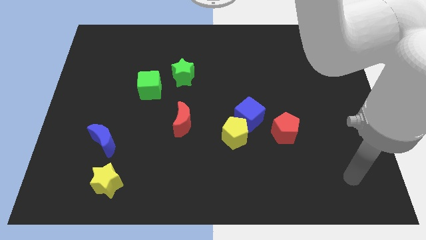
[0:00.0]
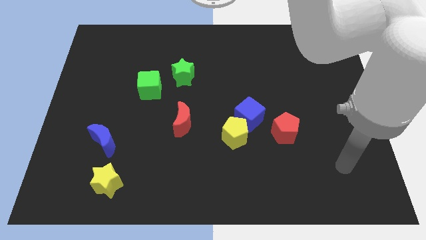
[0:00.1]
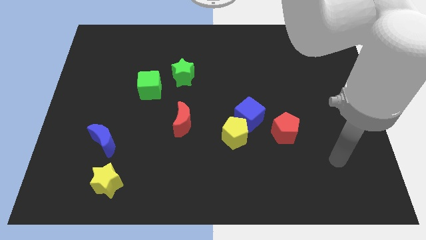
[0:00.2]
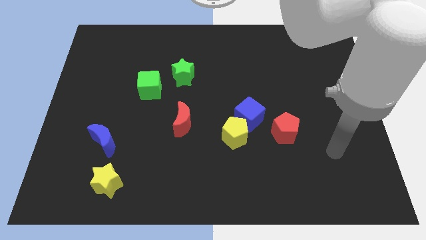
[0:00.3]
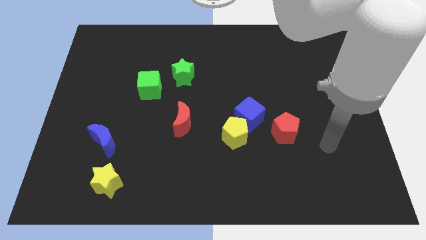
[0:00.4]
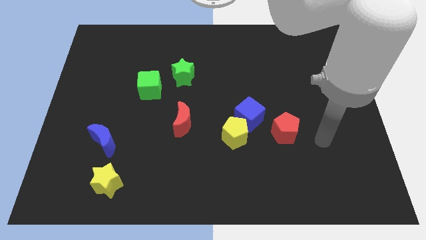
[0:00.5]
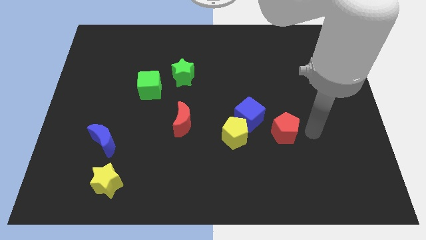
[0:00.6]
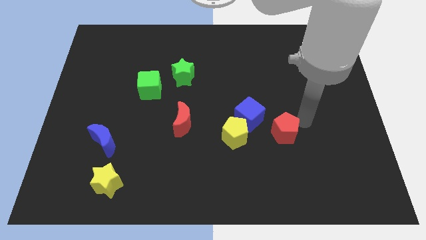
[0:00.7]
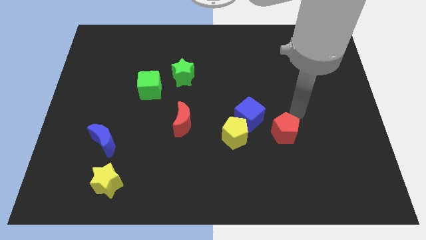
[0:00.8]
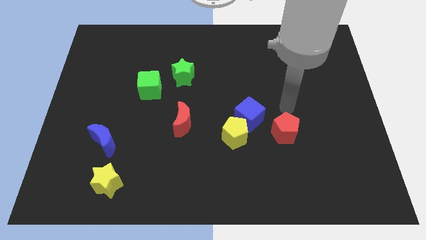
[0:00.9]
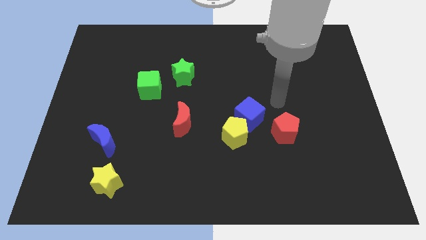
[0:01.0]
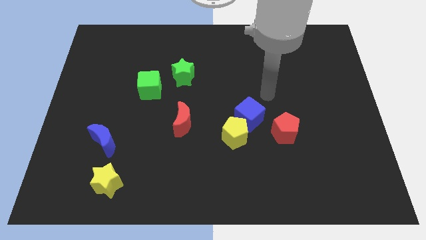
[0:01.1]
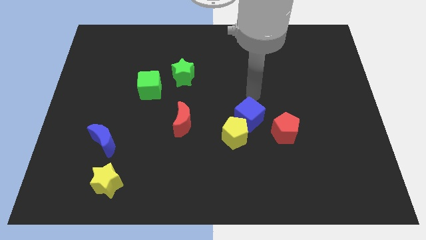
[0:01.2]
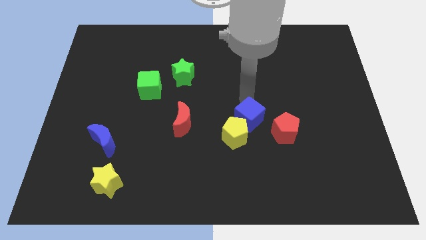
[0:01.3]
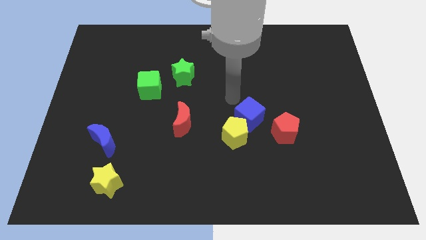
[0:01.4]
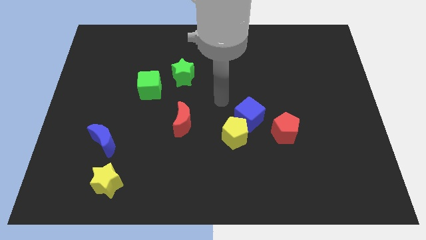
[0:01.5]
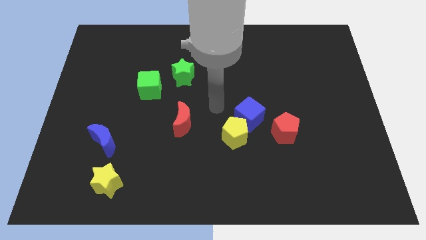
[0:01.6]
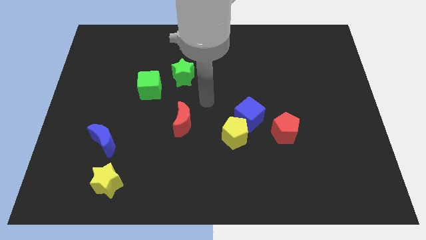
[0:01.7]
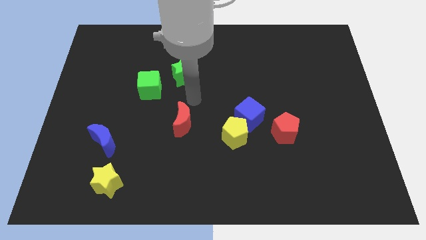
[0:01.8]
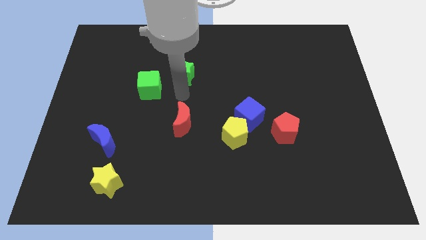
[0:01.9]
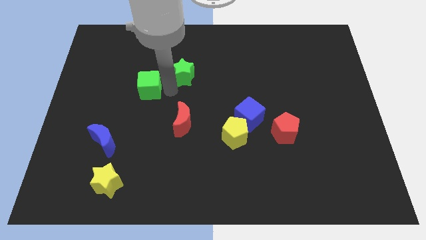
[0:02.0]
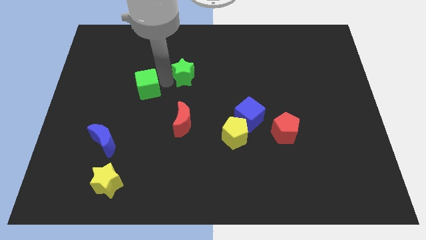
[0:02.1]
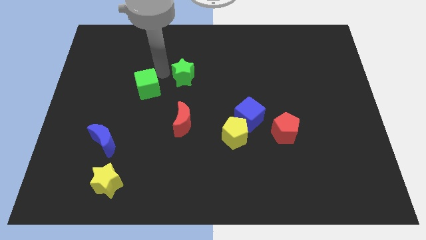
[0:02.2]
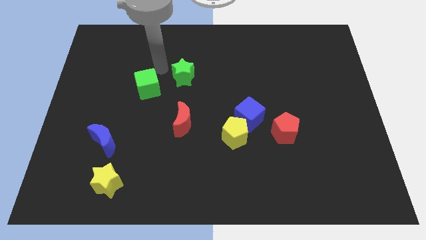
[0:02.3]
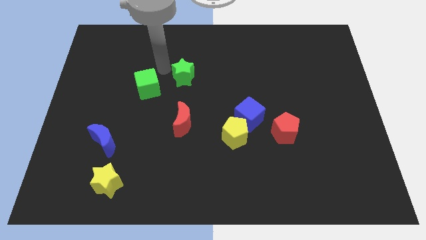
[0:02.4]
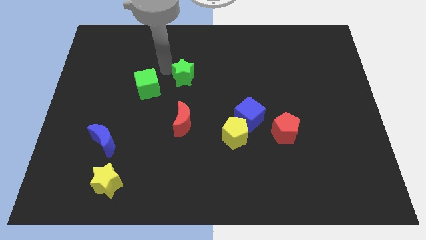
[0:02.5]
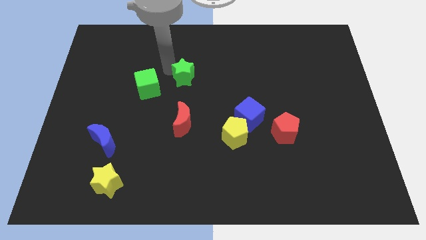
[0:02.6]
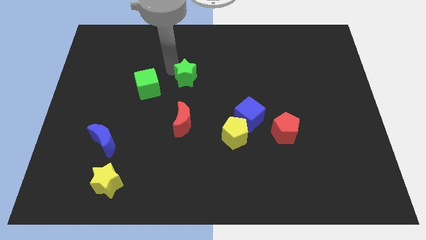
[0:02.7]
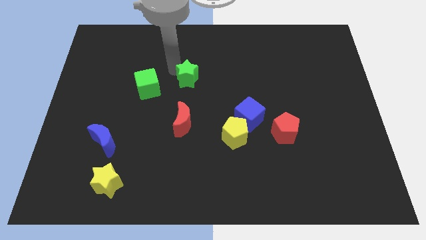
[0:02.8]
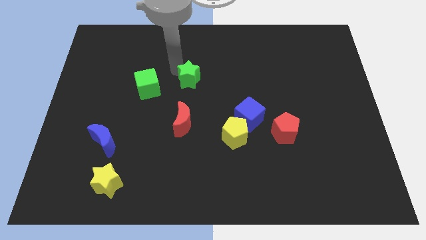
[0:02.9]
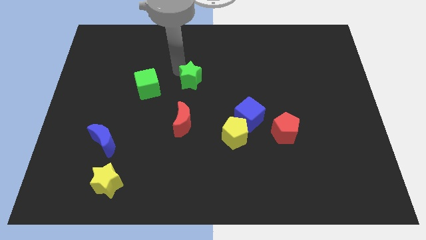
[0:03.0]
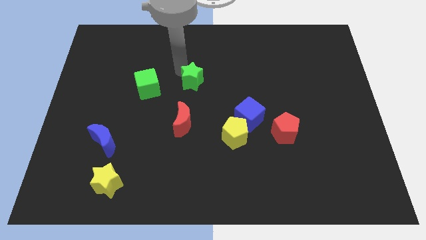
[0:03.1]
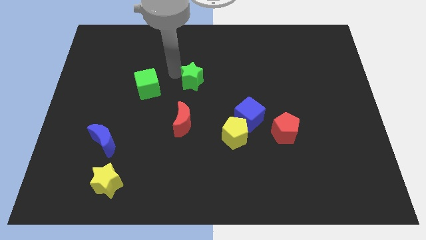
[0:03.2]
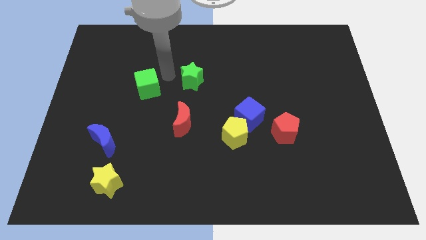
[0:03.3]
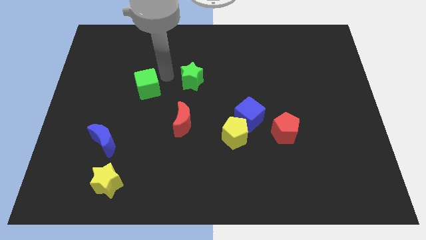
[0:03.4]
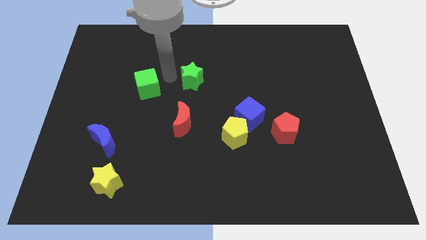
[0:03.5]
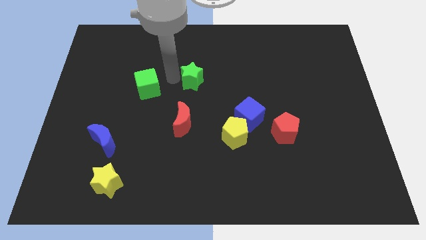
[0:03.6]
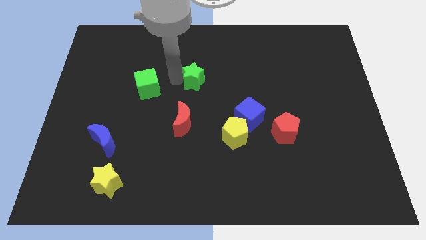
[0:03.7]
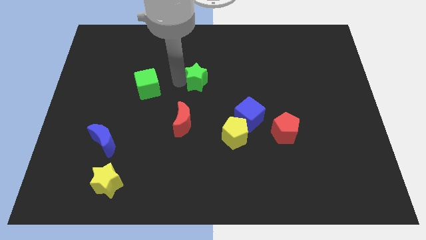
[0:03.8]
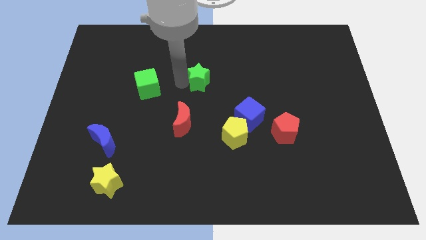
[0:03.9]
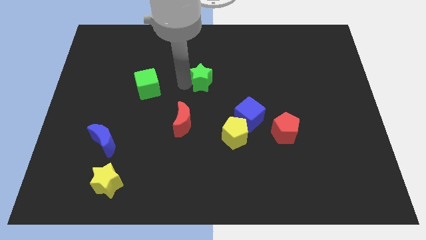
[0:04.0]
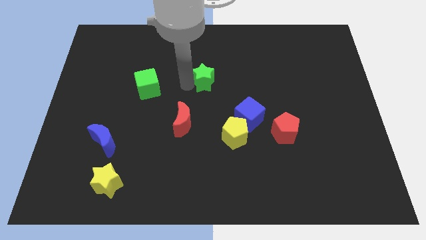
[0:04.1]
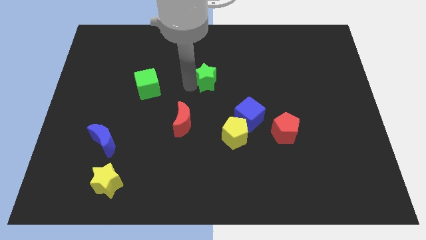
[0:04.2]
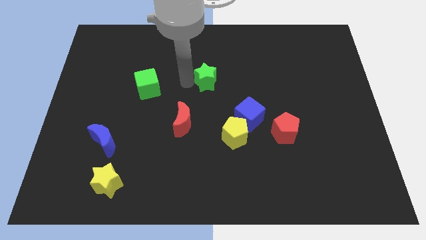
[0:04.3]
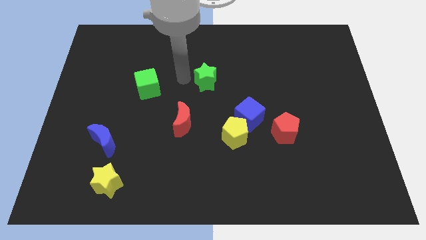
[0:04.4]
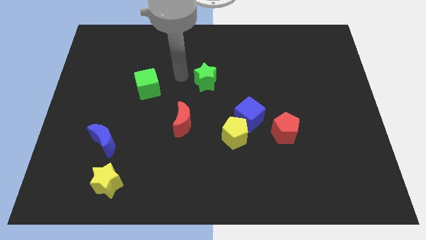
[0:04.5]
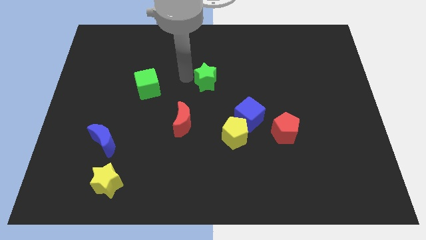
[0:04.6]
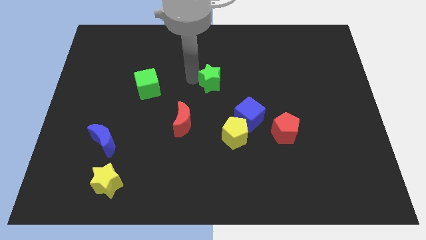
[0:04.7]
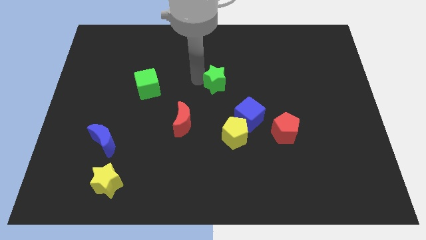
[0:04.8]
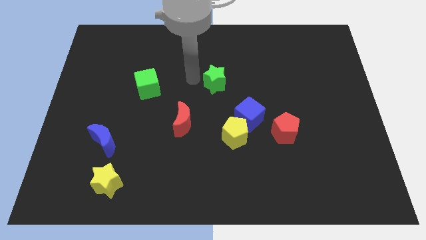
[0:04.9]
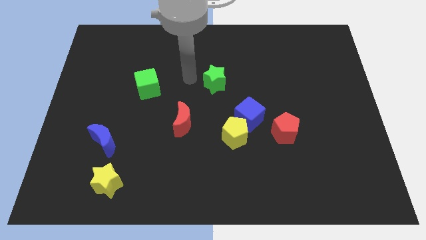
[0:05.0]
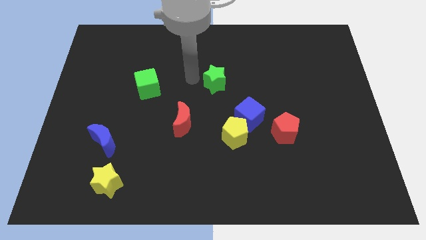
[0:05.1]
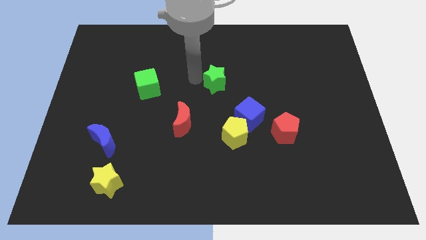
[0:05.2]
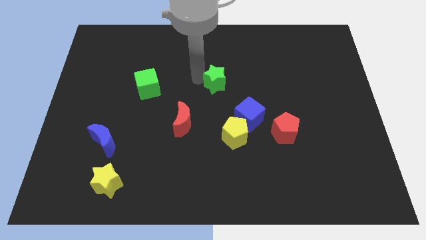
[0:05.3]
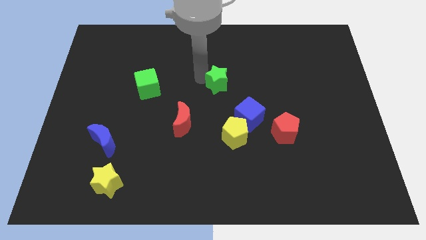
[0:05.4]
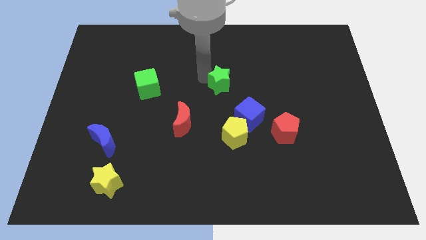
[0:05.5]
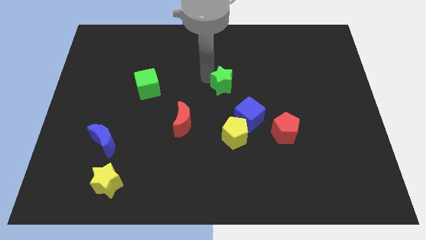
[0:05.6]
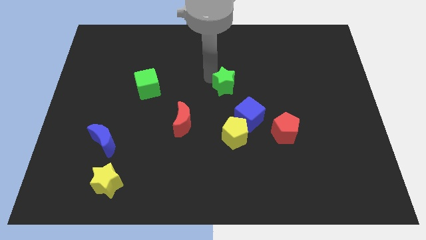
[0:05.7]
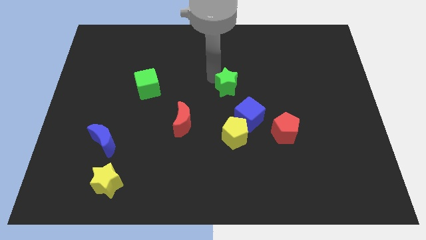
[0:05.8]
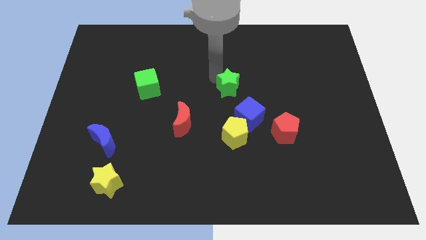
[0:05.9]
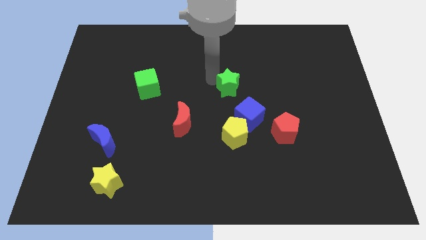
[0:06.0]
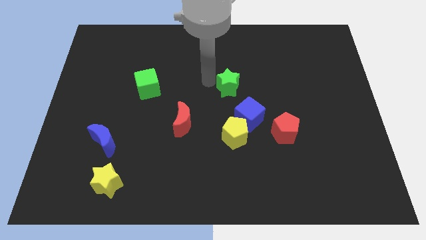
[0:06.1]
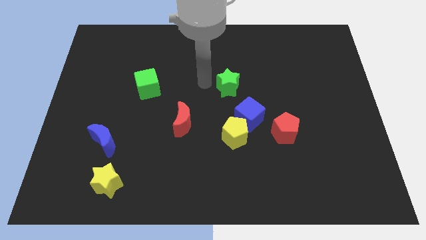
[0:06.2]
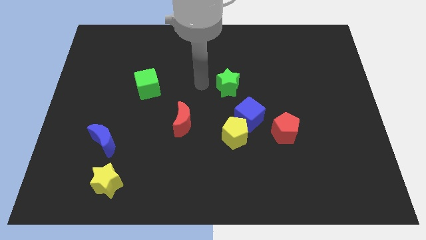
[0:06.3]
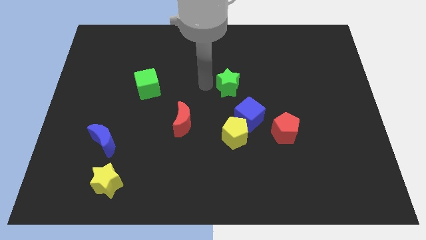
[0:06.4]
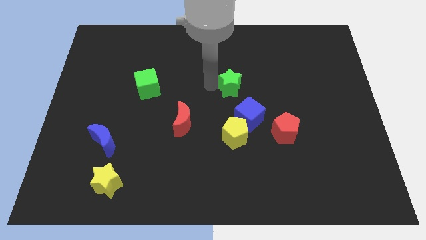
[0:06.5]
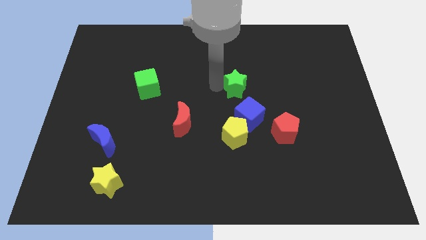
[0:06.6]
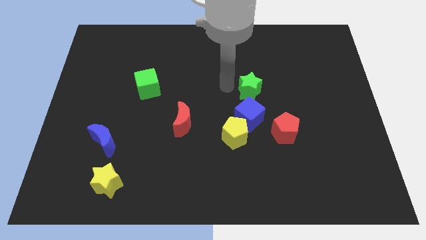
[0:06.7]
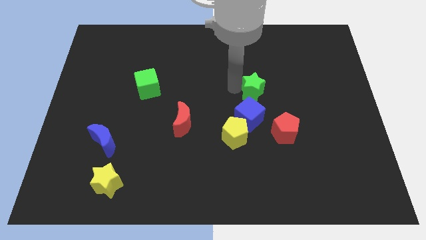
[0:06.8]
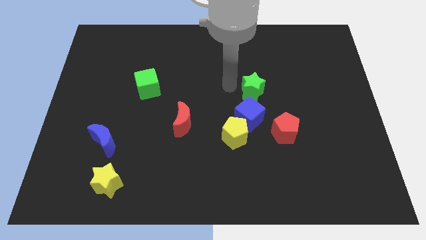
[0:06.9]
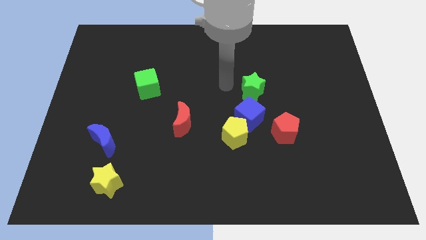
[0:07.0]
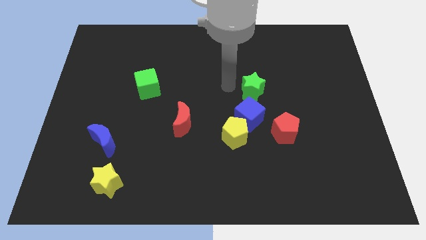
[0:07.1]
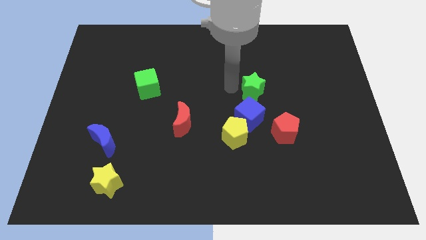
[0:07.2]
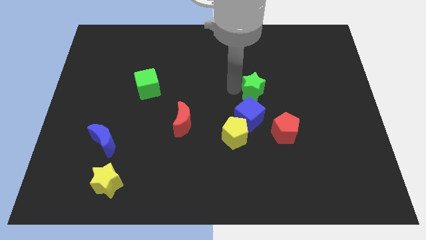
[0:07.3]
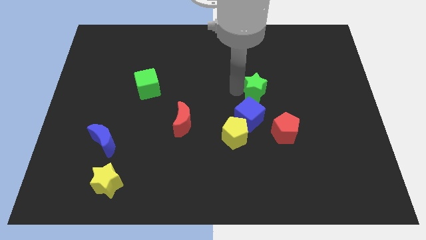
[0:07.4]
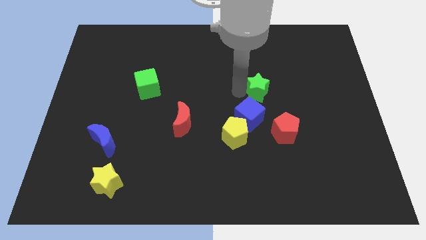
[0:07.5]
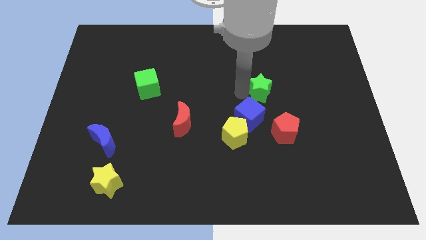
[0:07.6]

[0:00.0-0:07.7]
put the green star to the top of the red pentagon
